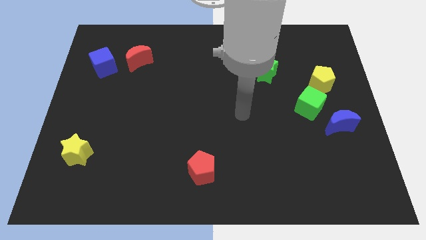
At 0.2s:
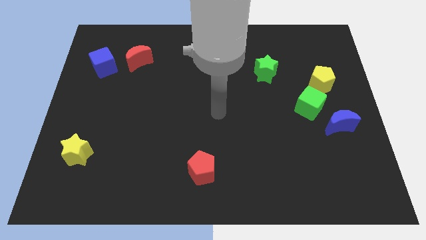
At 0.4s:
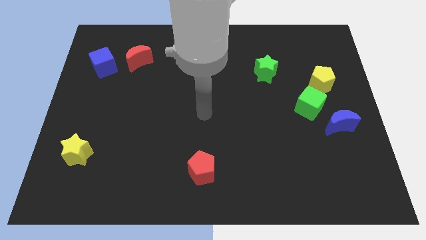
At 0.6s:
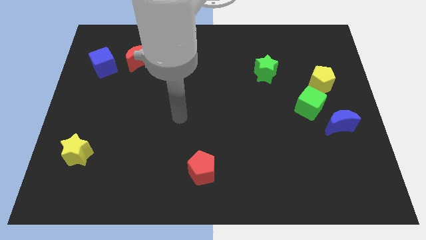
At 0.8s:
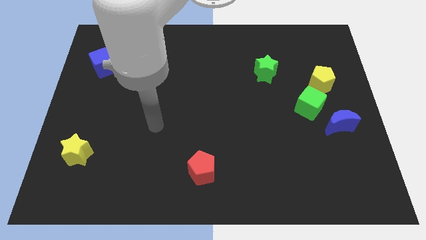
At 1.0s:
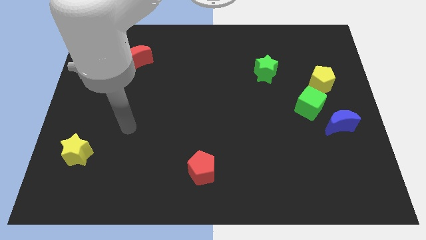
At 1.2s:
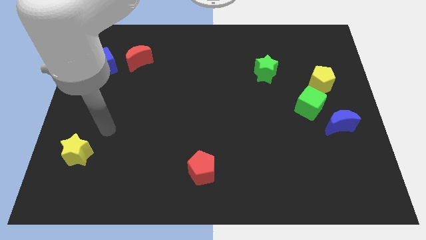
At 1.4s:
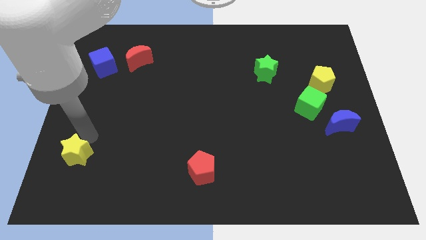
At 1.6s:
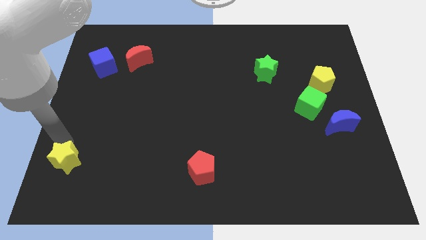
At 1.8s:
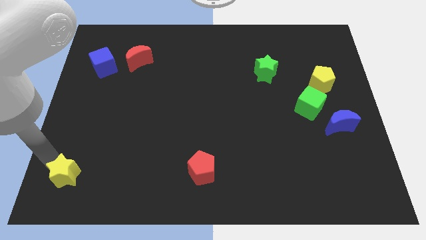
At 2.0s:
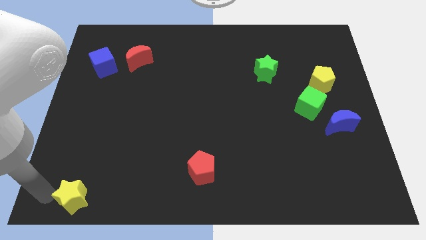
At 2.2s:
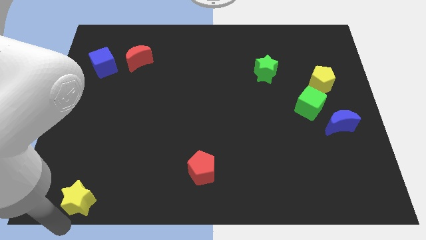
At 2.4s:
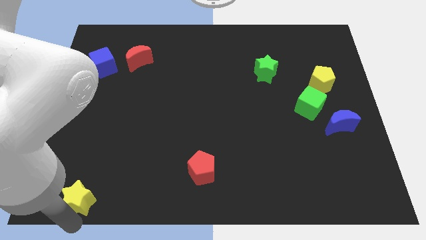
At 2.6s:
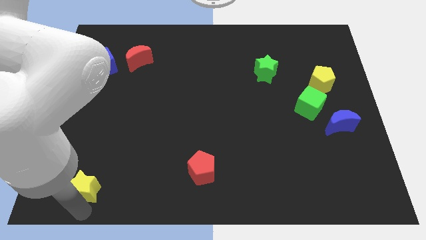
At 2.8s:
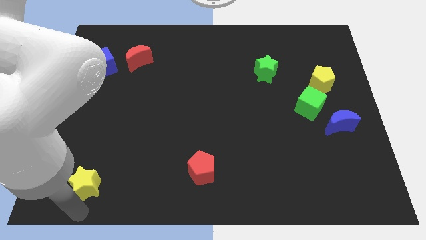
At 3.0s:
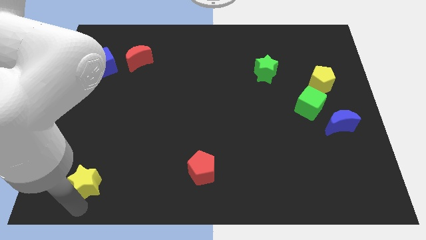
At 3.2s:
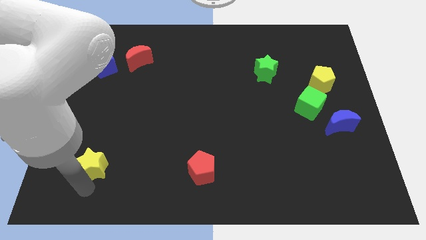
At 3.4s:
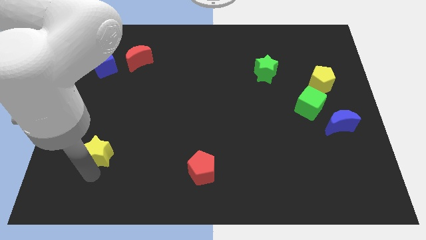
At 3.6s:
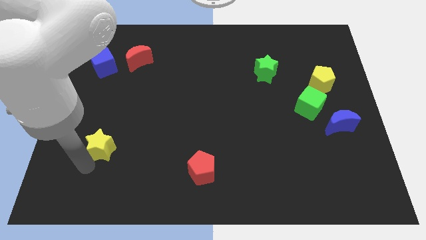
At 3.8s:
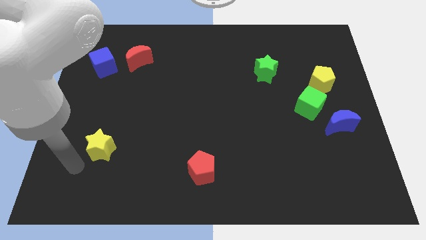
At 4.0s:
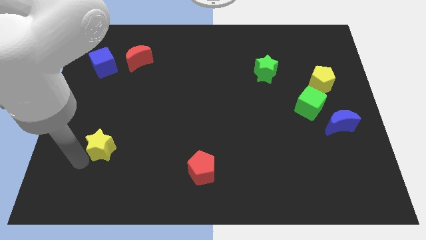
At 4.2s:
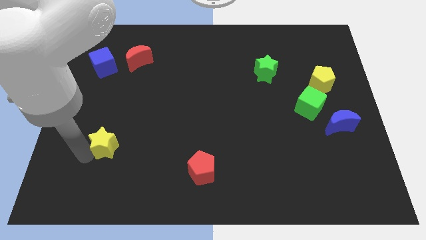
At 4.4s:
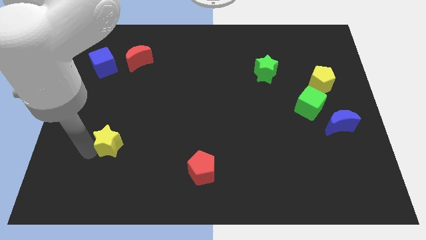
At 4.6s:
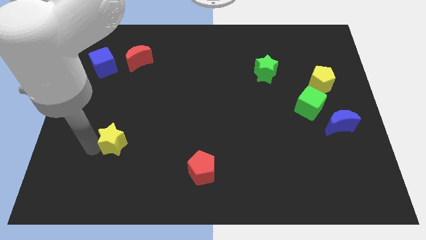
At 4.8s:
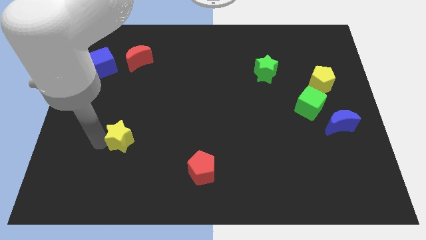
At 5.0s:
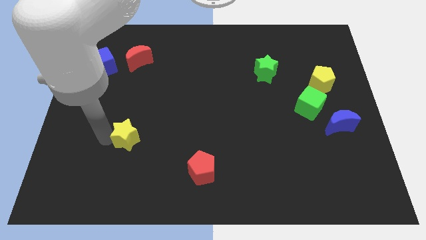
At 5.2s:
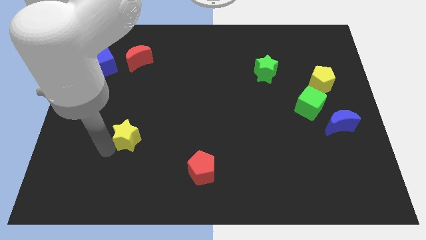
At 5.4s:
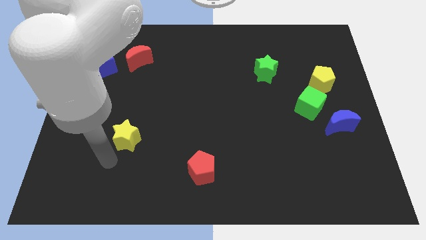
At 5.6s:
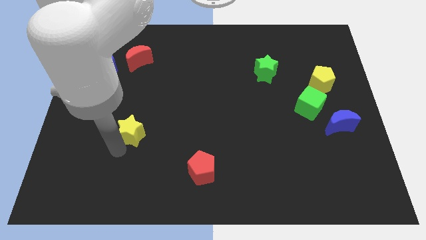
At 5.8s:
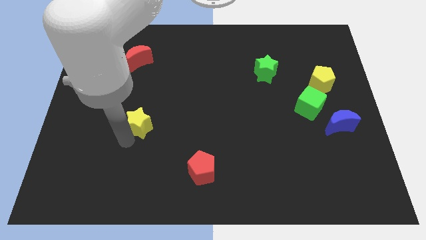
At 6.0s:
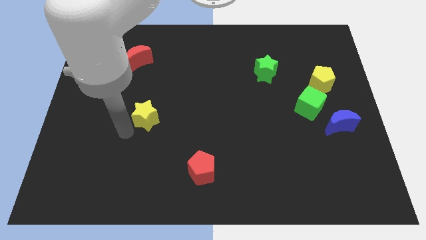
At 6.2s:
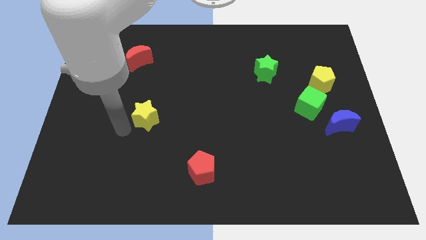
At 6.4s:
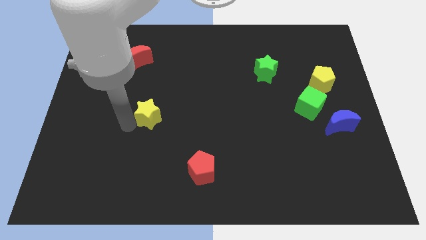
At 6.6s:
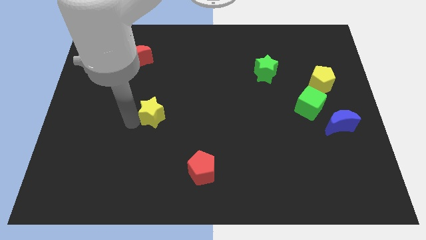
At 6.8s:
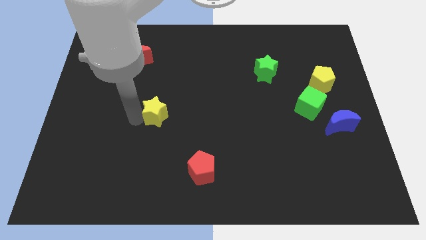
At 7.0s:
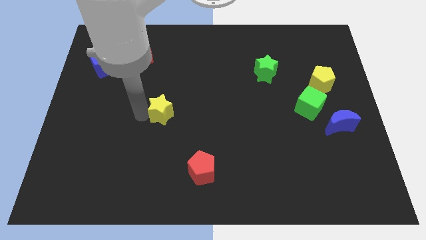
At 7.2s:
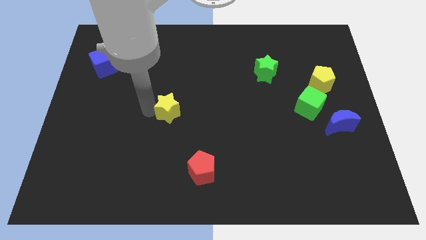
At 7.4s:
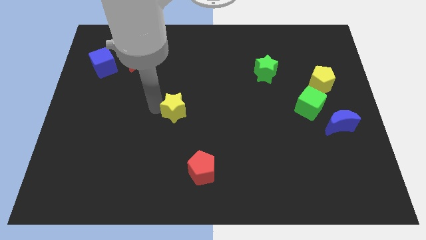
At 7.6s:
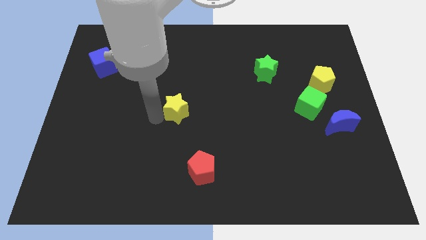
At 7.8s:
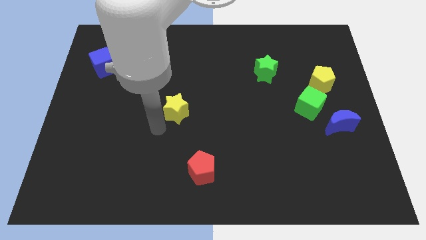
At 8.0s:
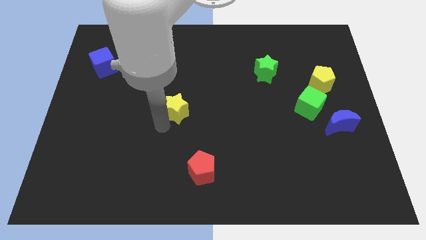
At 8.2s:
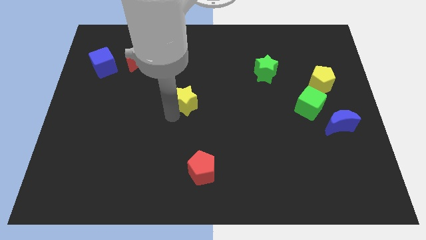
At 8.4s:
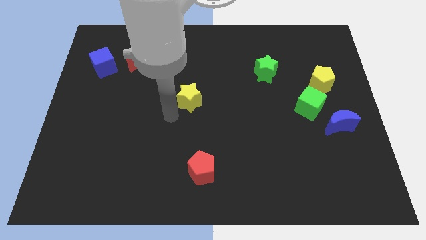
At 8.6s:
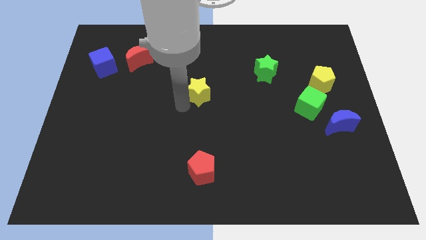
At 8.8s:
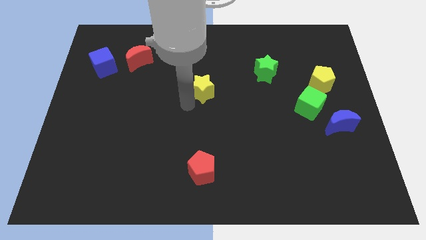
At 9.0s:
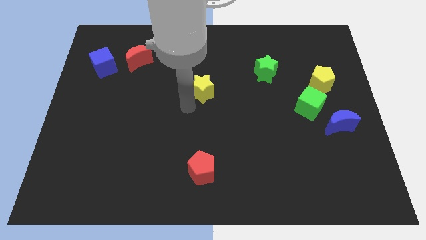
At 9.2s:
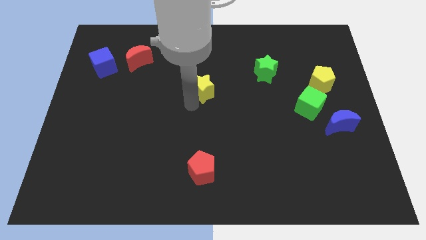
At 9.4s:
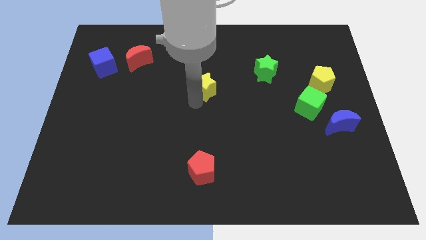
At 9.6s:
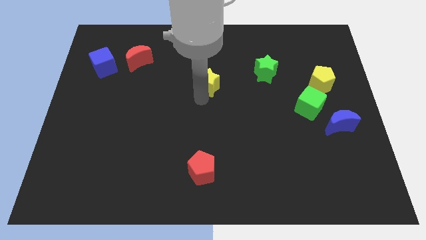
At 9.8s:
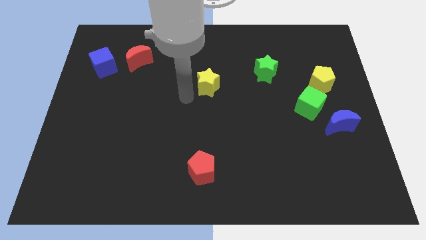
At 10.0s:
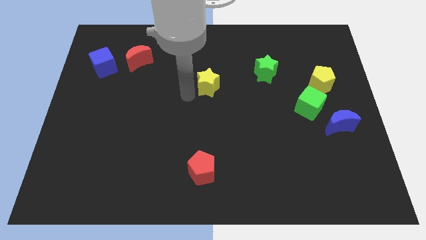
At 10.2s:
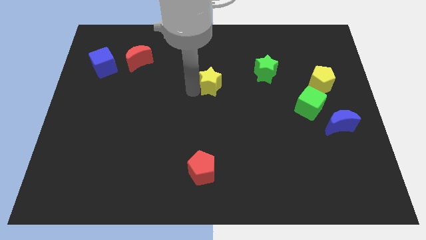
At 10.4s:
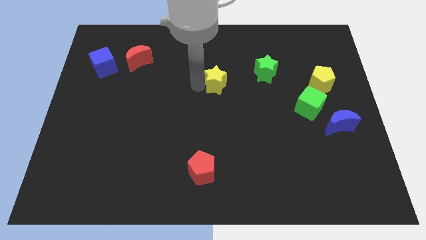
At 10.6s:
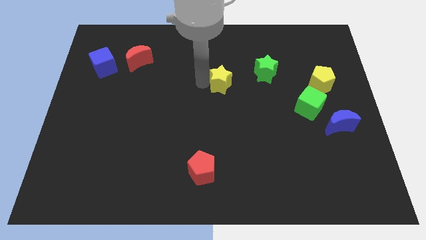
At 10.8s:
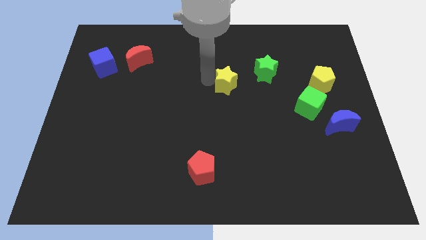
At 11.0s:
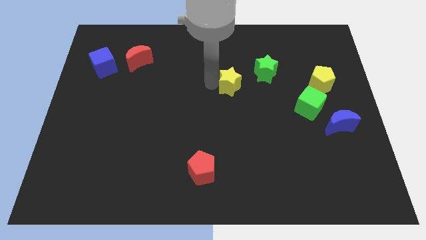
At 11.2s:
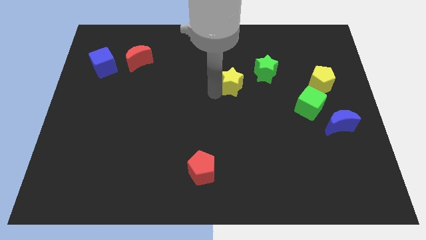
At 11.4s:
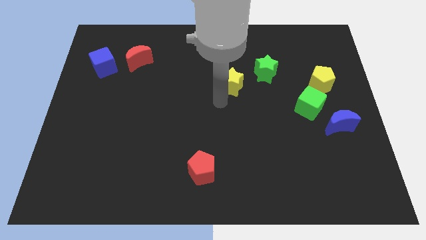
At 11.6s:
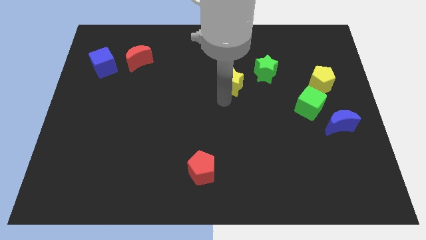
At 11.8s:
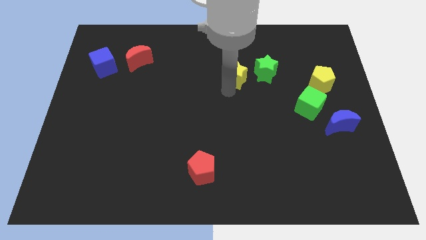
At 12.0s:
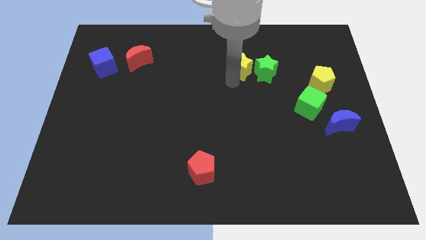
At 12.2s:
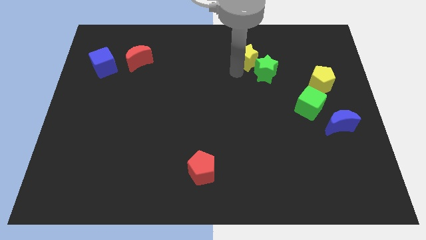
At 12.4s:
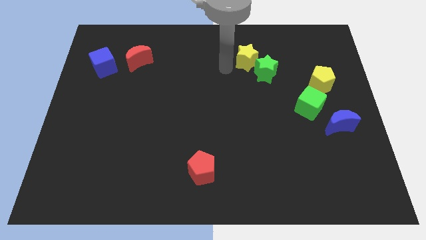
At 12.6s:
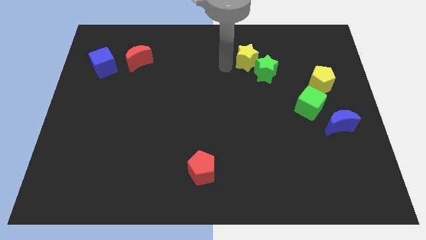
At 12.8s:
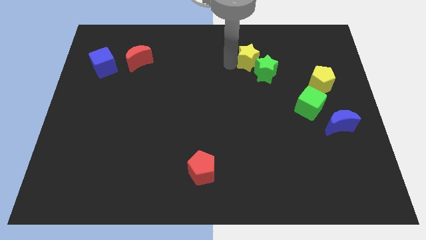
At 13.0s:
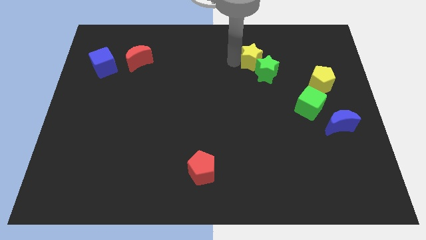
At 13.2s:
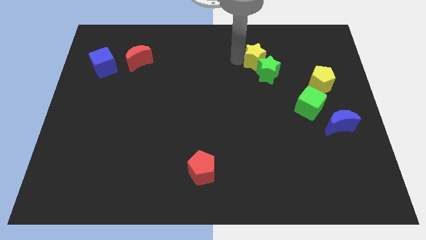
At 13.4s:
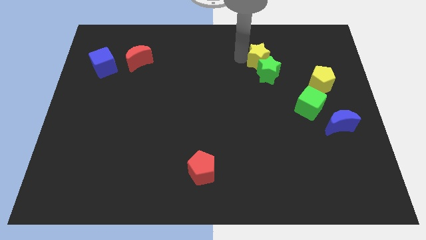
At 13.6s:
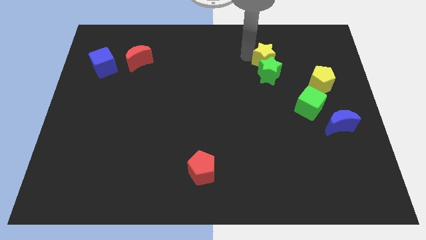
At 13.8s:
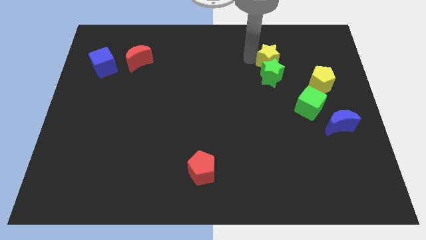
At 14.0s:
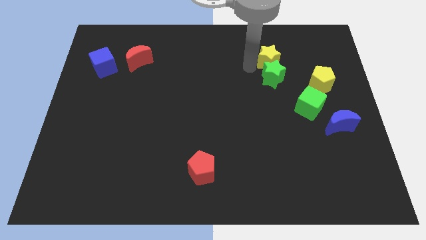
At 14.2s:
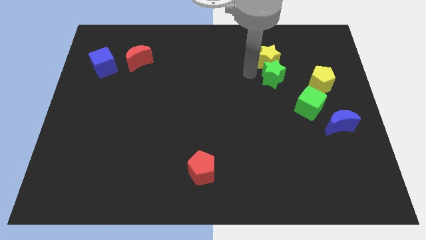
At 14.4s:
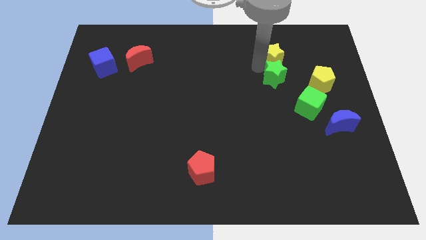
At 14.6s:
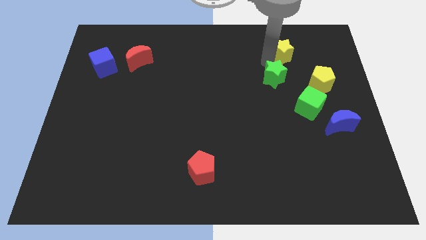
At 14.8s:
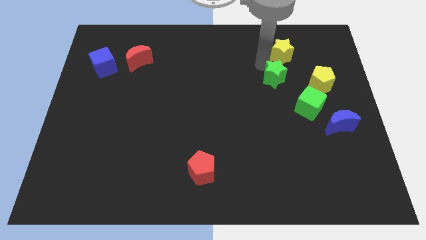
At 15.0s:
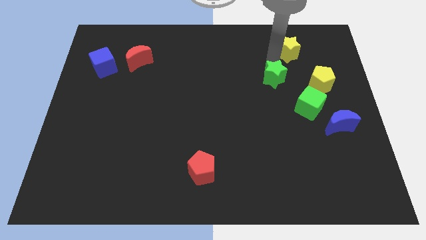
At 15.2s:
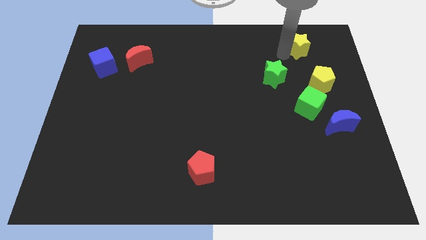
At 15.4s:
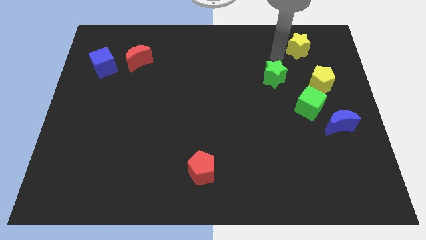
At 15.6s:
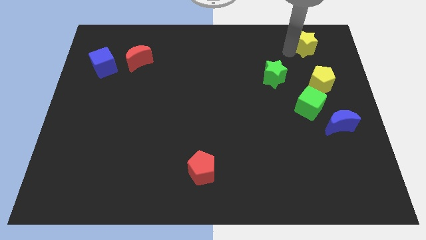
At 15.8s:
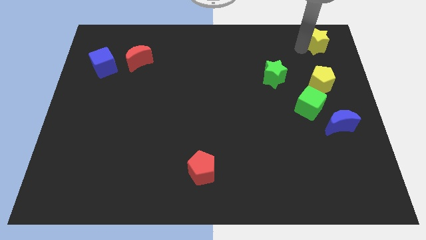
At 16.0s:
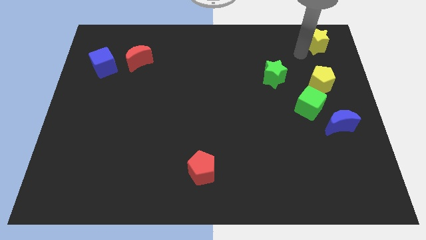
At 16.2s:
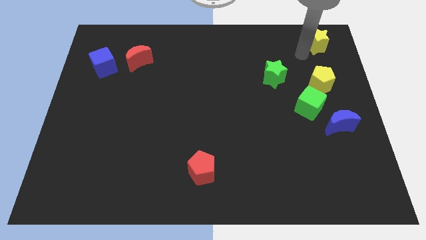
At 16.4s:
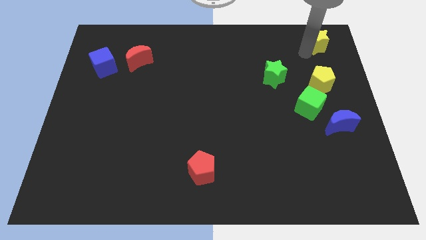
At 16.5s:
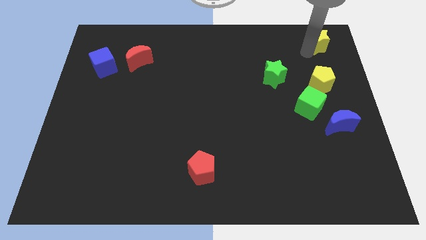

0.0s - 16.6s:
move the yellow star to the top right corner
